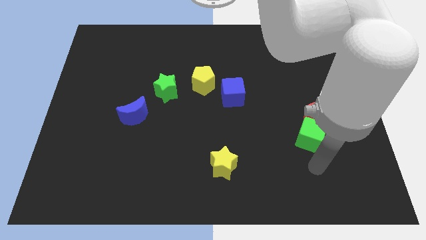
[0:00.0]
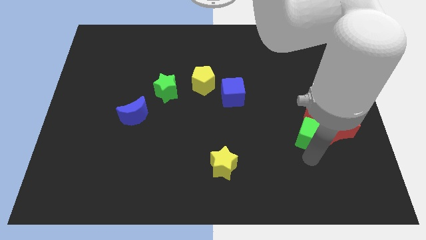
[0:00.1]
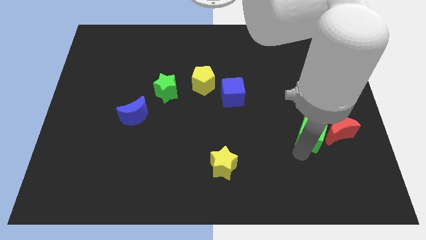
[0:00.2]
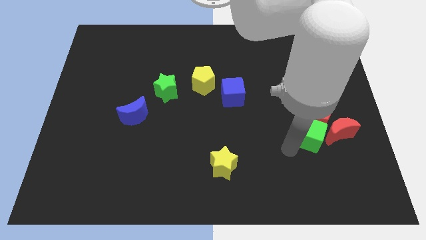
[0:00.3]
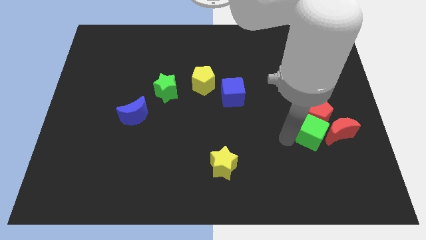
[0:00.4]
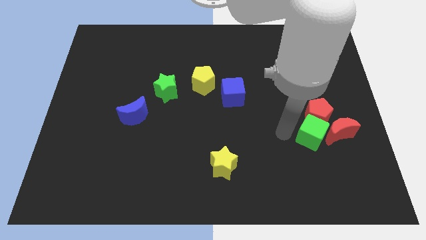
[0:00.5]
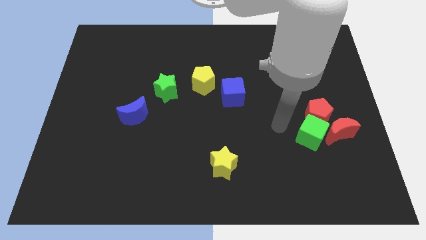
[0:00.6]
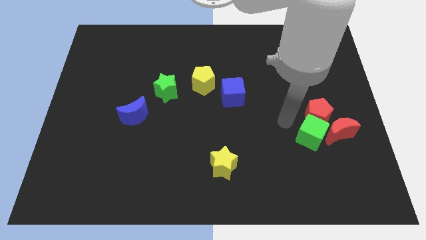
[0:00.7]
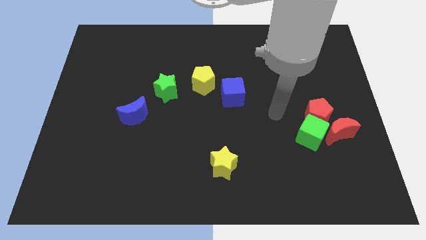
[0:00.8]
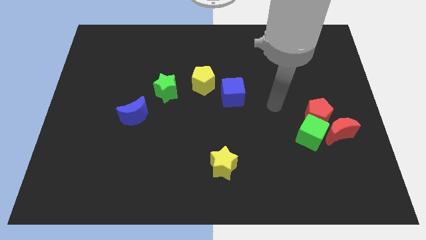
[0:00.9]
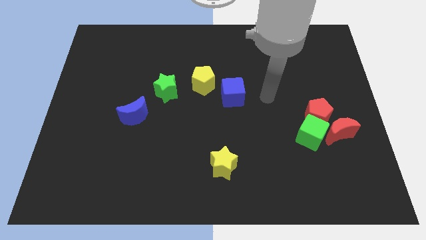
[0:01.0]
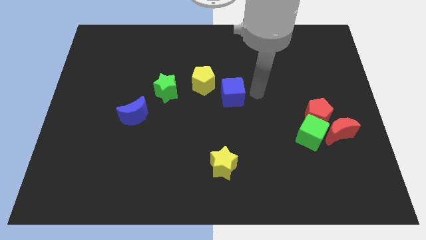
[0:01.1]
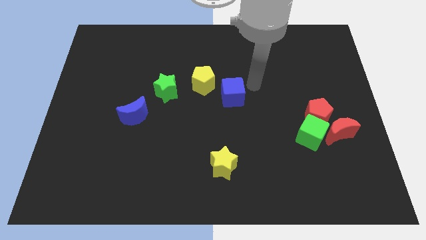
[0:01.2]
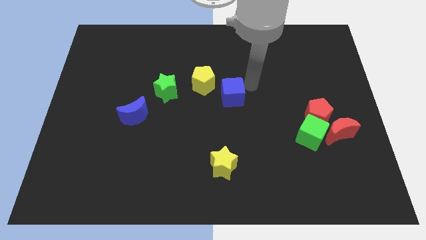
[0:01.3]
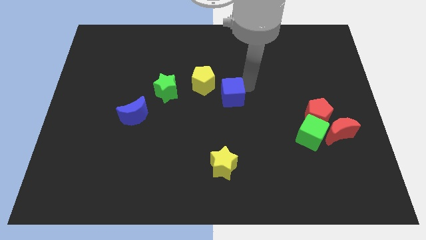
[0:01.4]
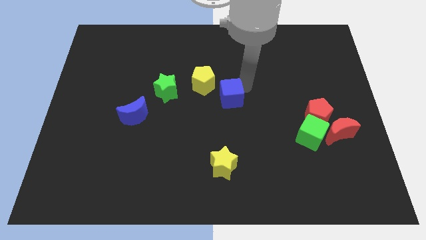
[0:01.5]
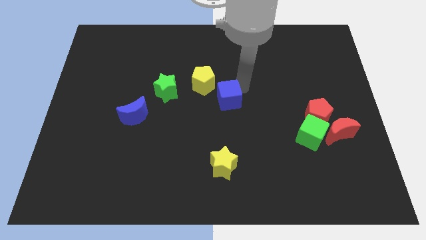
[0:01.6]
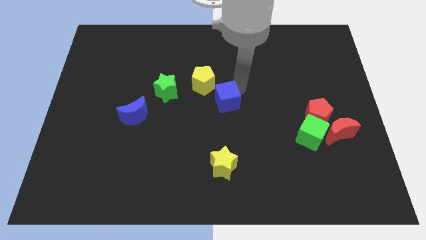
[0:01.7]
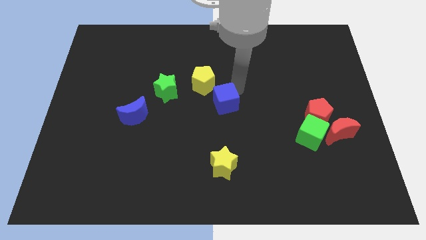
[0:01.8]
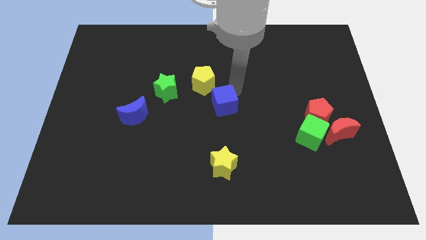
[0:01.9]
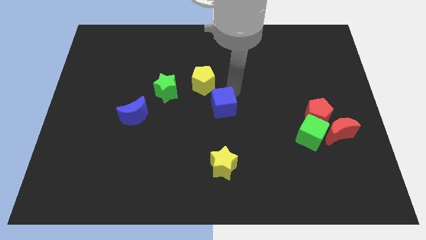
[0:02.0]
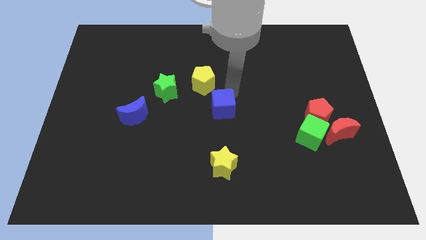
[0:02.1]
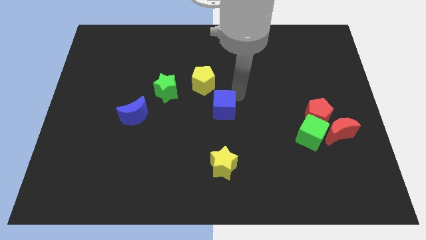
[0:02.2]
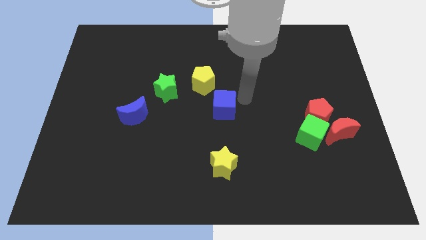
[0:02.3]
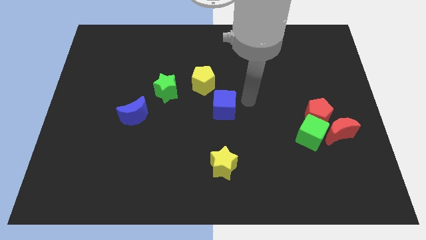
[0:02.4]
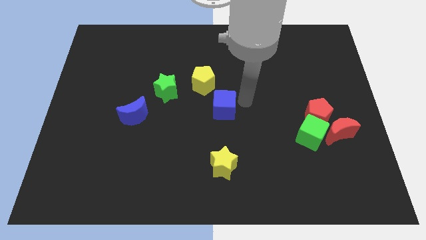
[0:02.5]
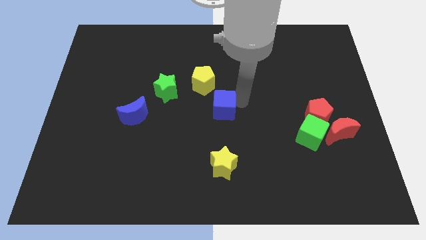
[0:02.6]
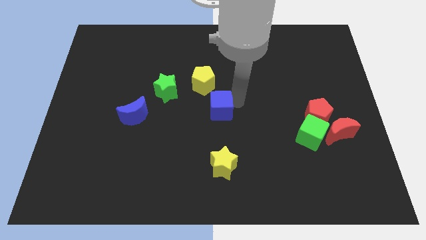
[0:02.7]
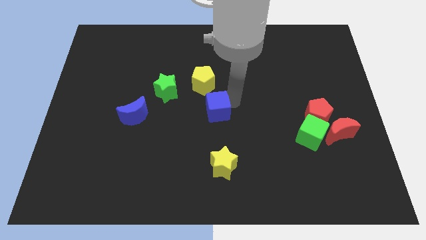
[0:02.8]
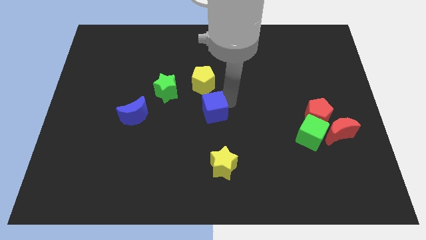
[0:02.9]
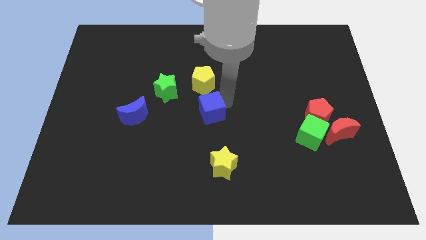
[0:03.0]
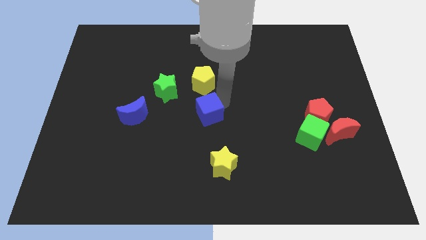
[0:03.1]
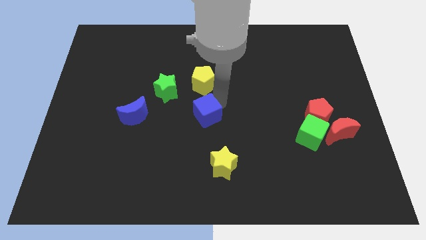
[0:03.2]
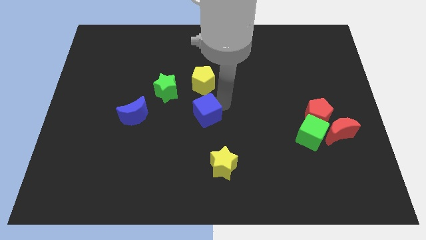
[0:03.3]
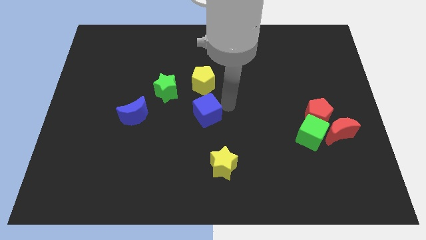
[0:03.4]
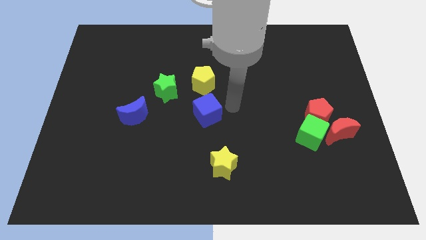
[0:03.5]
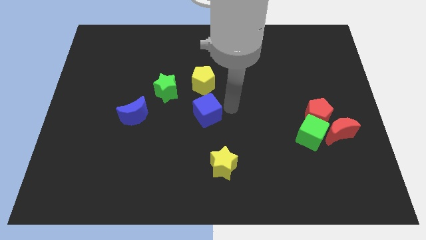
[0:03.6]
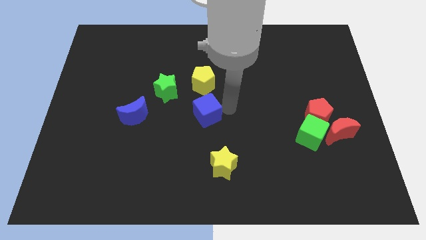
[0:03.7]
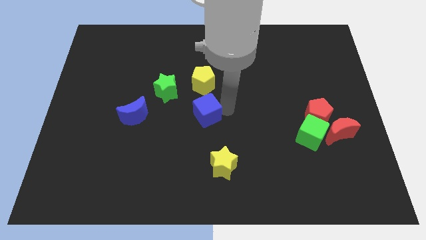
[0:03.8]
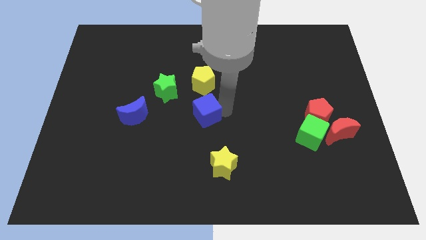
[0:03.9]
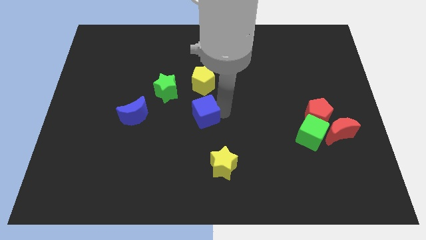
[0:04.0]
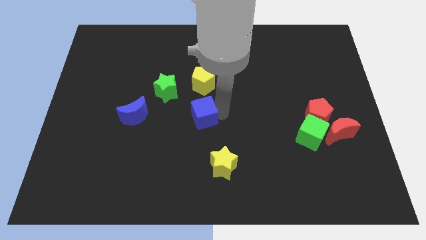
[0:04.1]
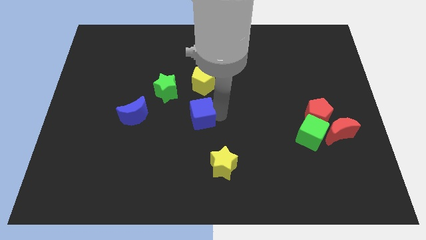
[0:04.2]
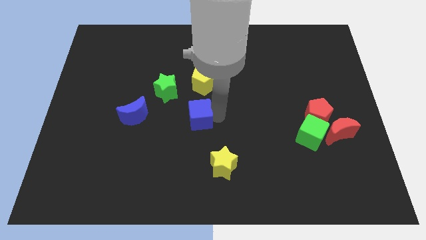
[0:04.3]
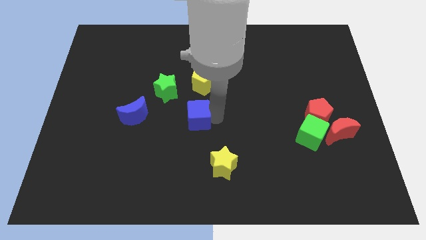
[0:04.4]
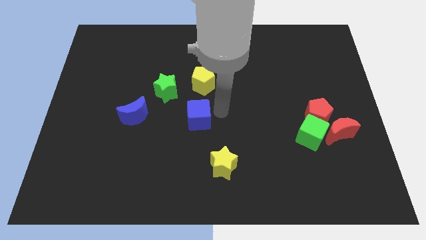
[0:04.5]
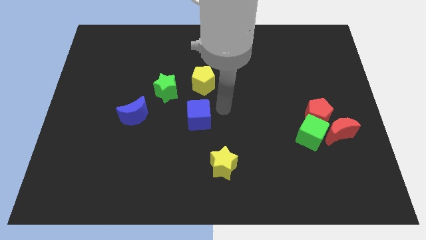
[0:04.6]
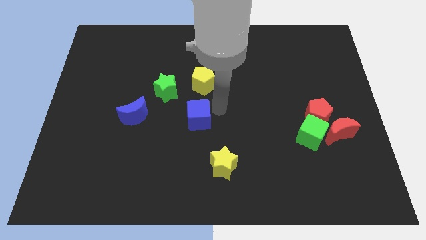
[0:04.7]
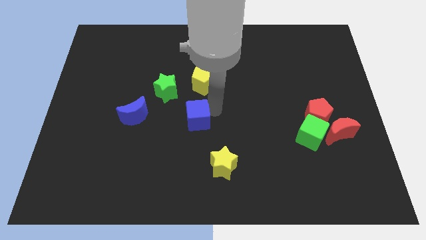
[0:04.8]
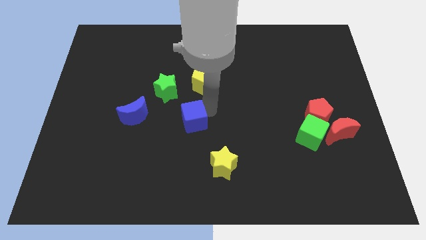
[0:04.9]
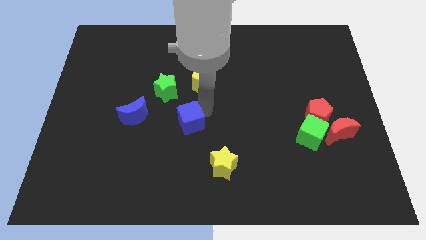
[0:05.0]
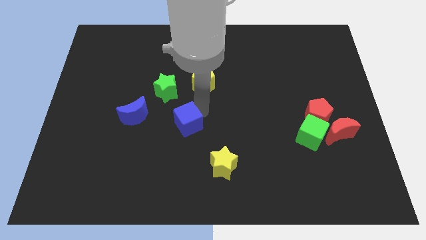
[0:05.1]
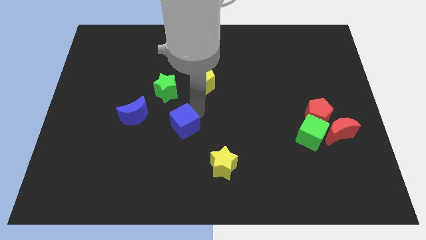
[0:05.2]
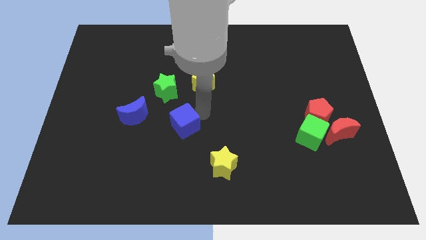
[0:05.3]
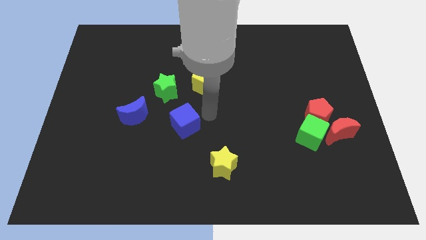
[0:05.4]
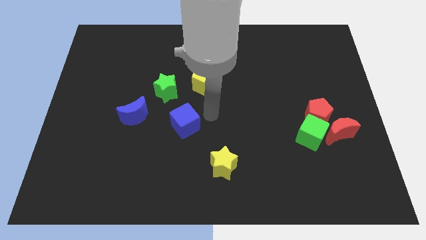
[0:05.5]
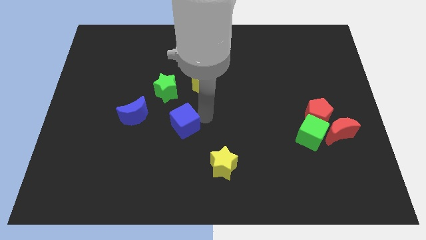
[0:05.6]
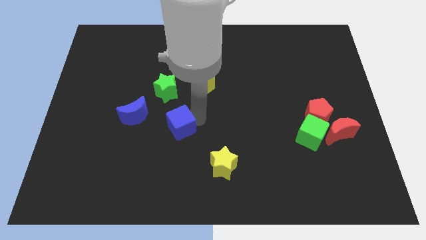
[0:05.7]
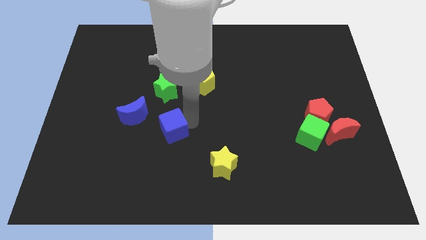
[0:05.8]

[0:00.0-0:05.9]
move the blue cube to the bottom right side of the blue moon

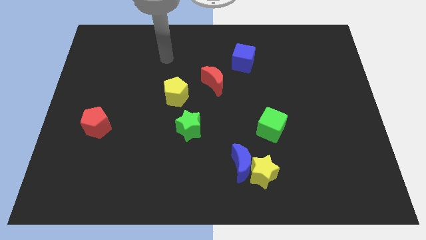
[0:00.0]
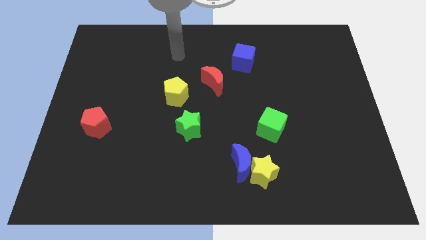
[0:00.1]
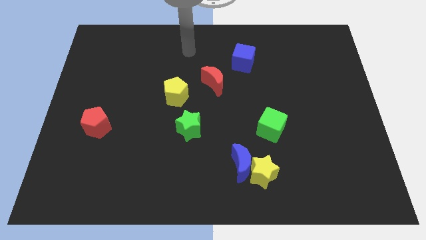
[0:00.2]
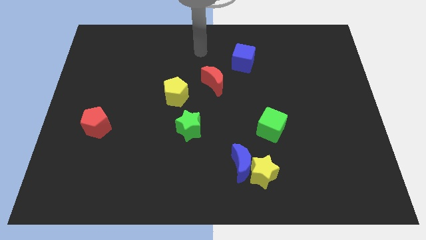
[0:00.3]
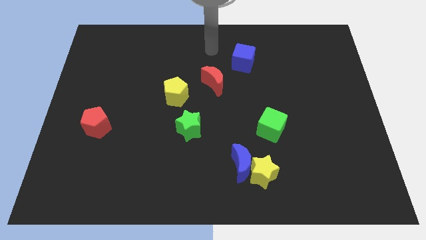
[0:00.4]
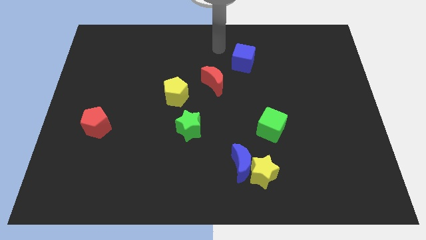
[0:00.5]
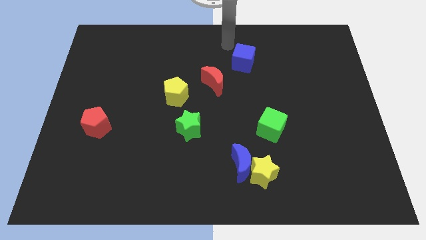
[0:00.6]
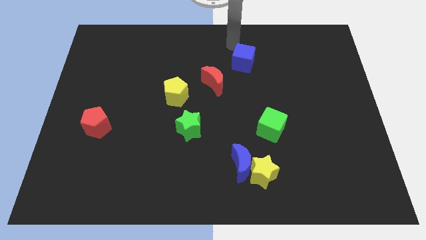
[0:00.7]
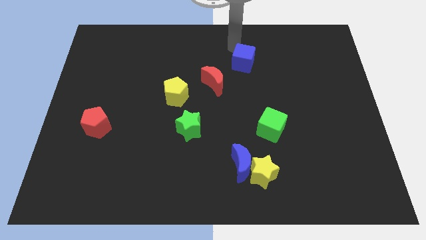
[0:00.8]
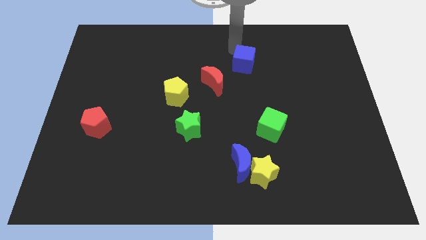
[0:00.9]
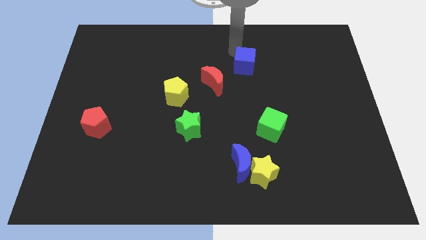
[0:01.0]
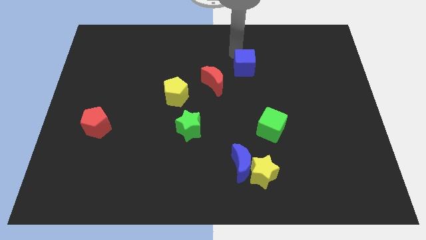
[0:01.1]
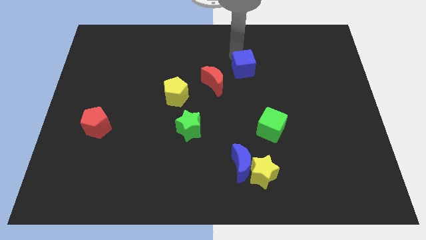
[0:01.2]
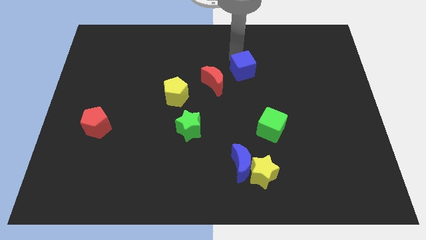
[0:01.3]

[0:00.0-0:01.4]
move the blue cube right of the red moon
